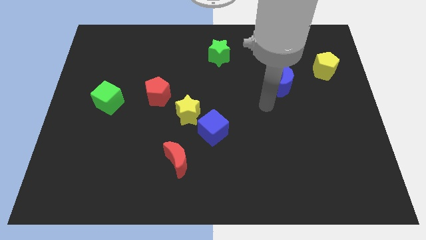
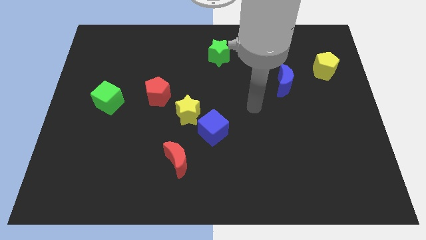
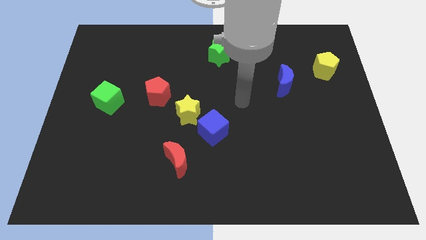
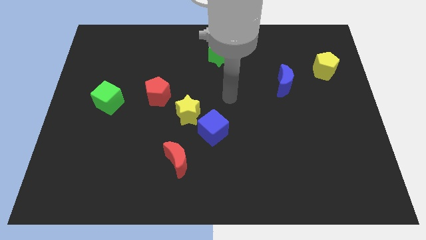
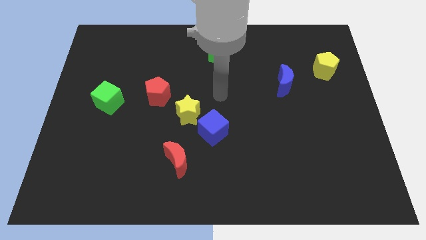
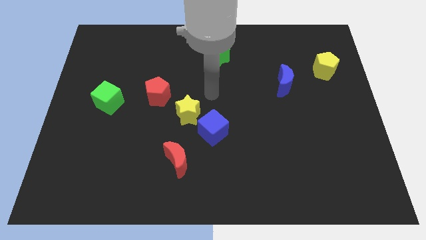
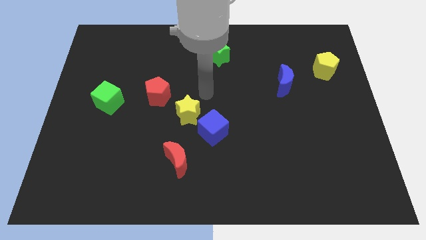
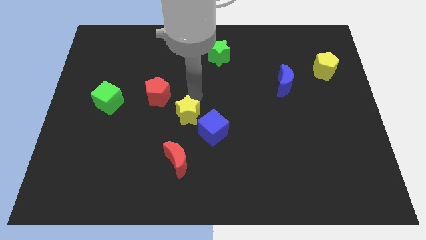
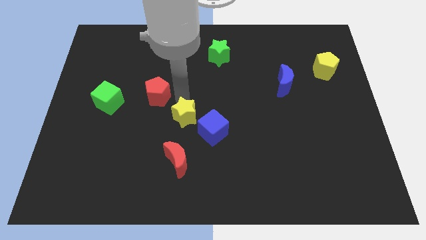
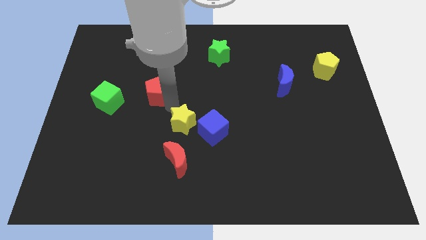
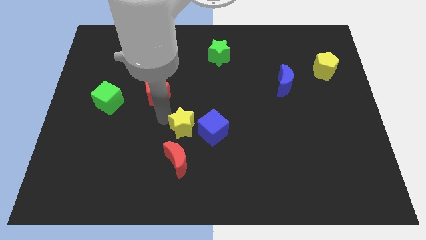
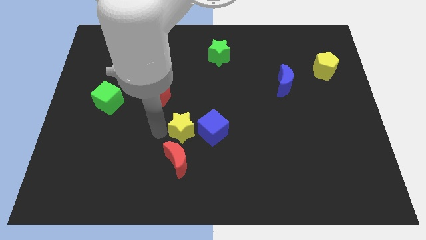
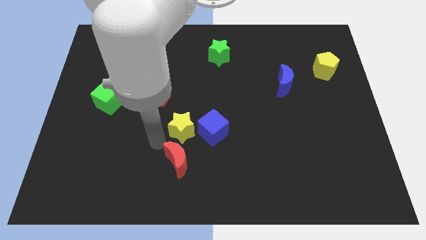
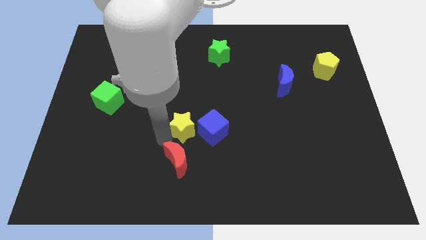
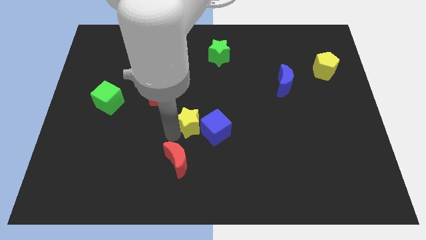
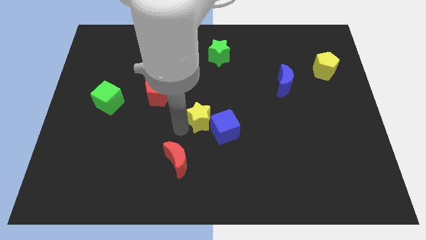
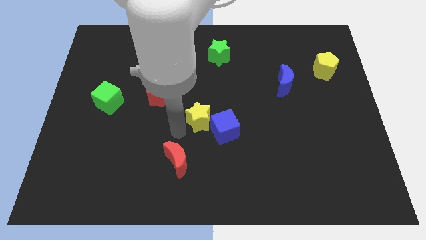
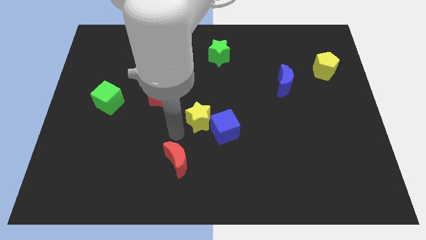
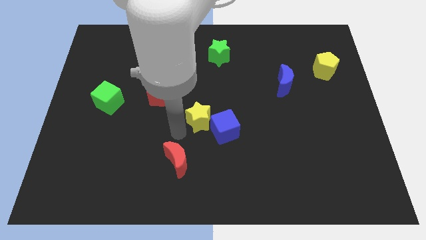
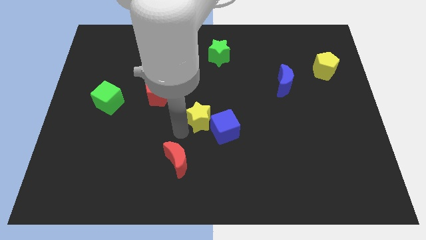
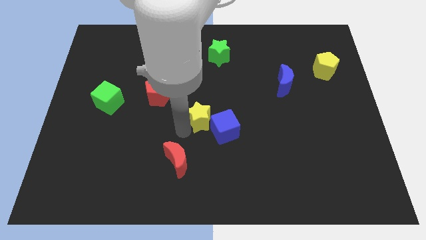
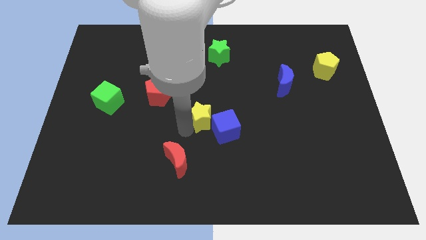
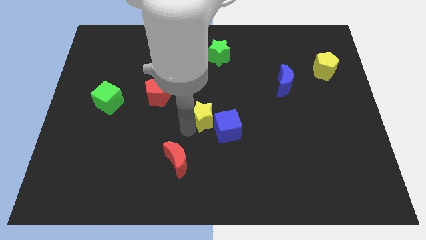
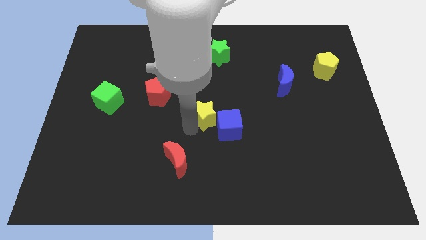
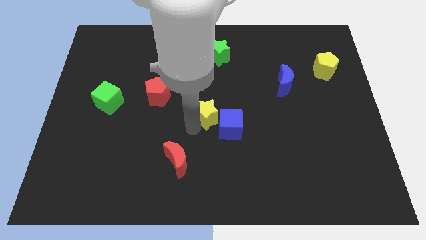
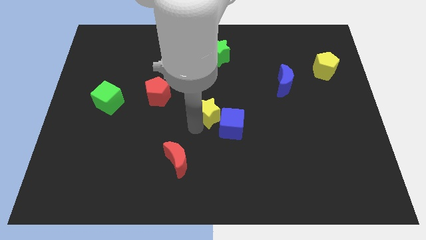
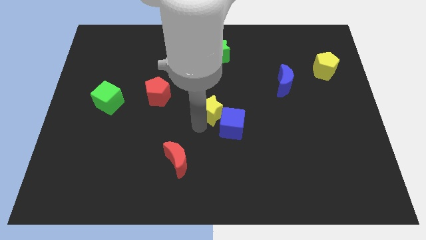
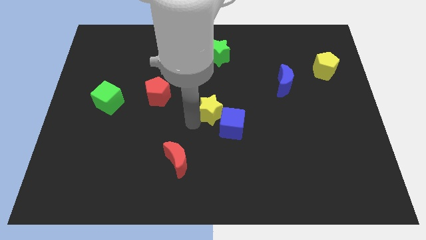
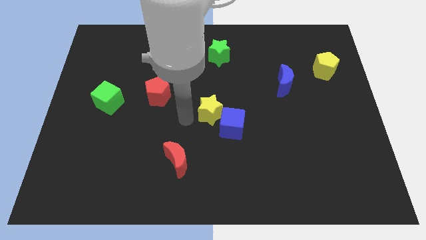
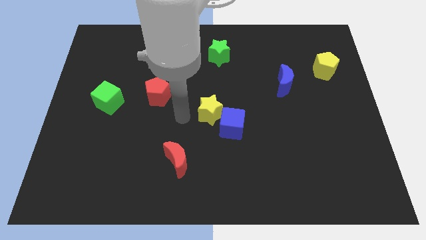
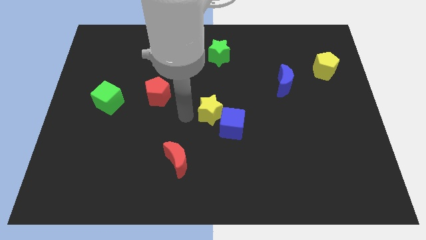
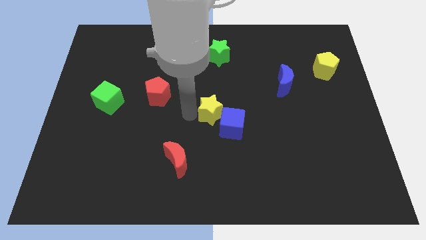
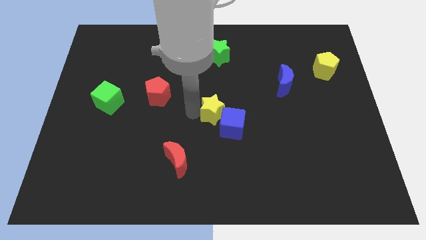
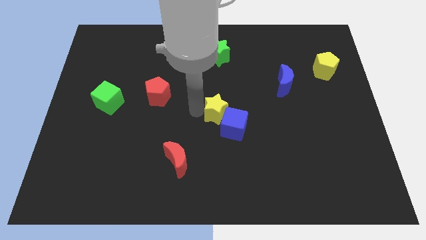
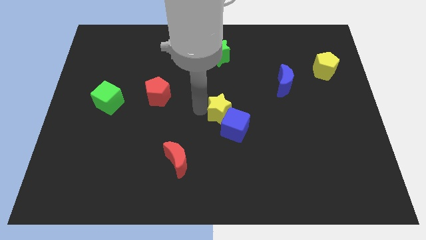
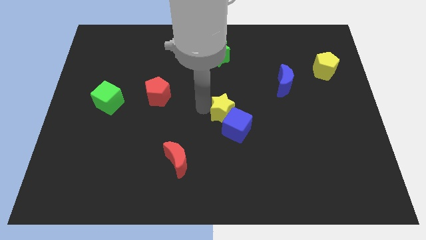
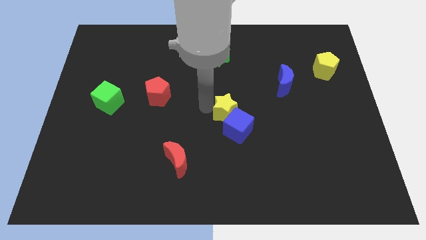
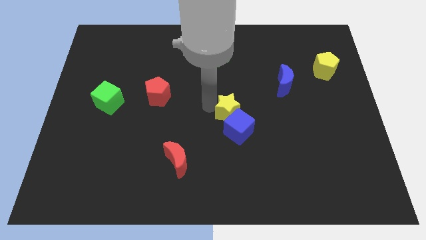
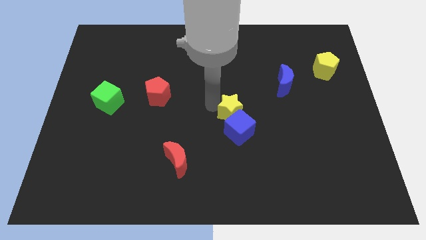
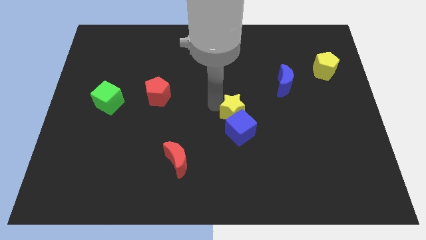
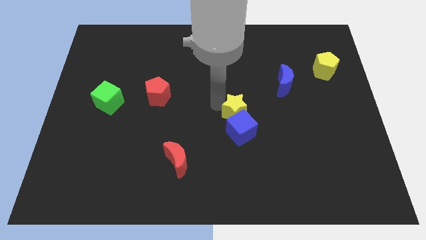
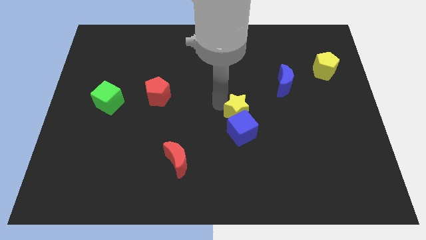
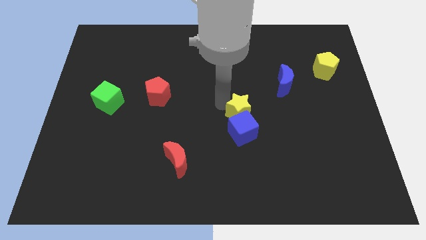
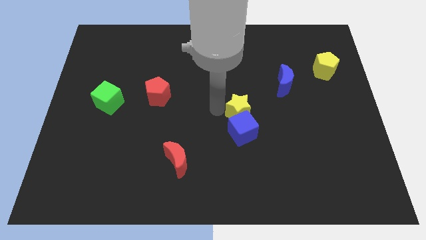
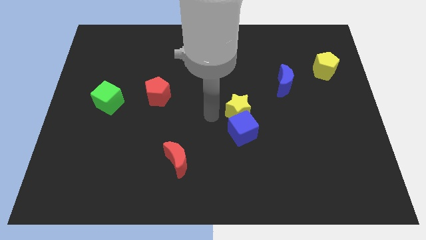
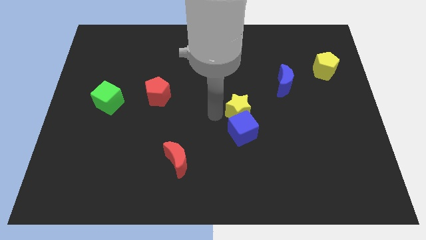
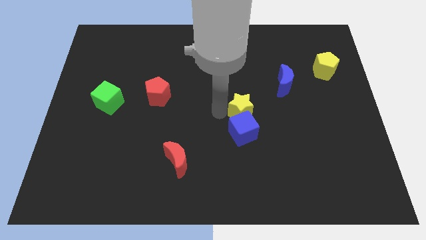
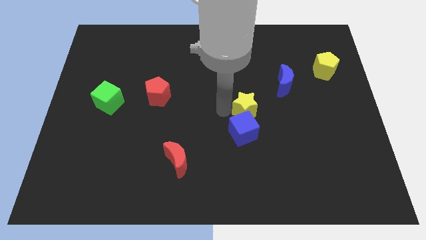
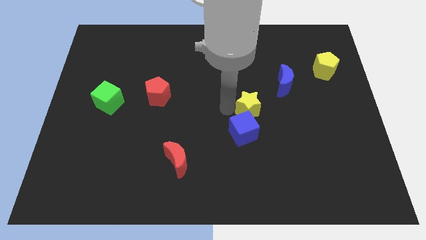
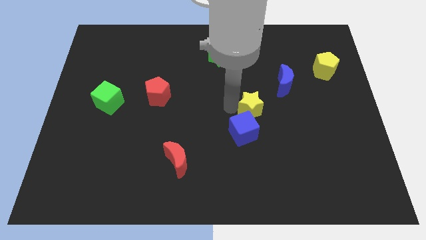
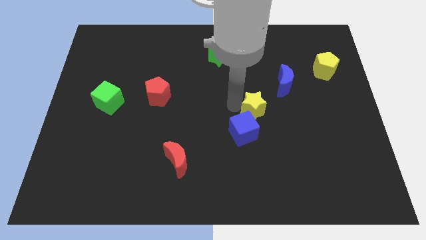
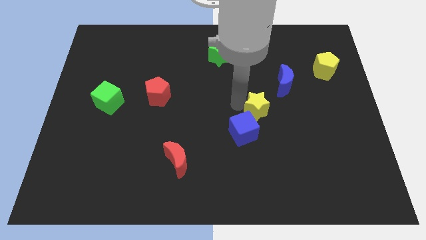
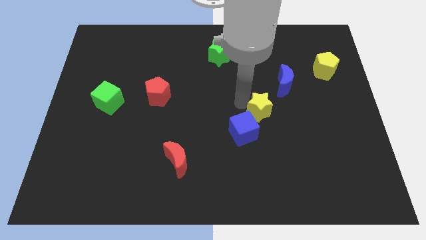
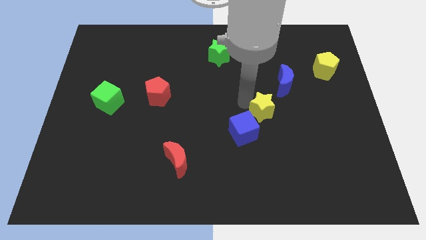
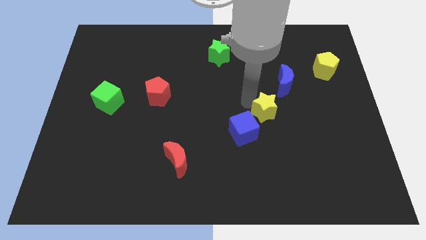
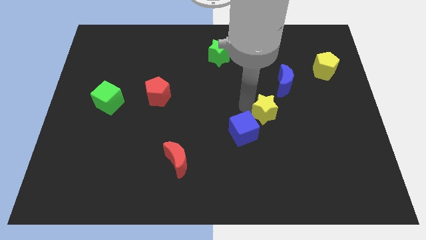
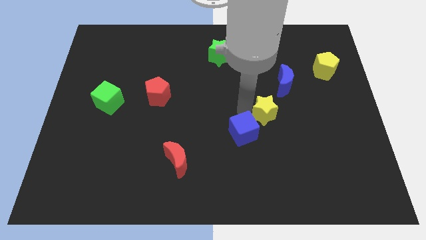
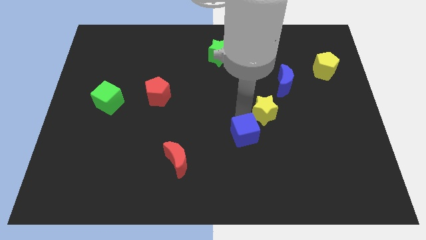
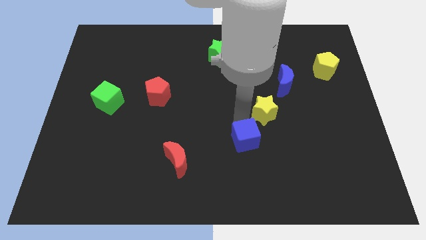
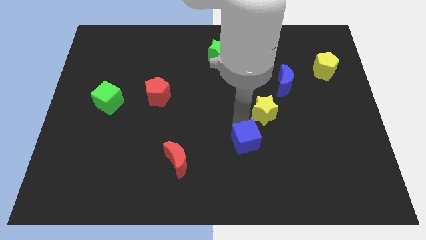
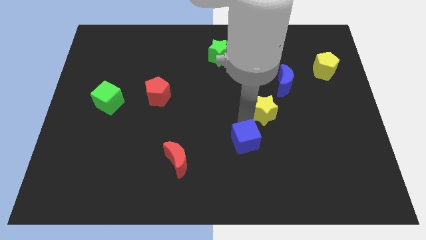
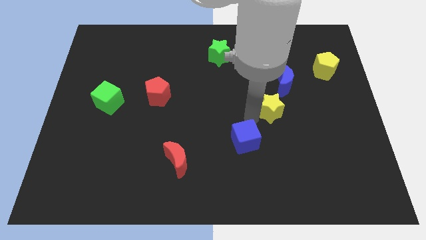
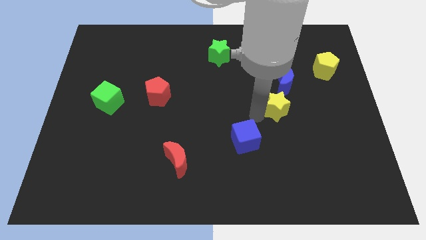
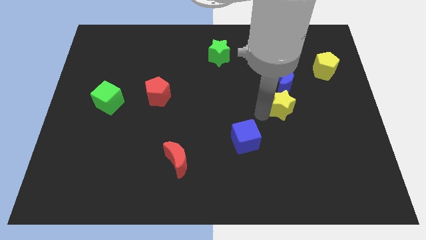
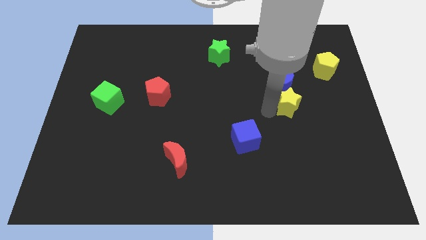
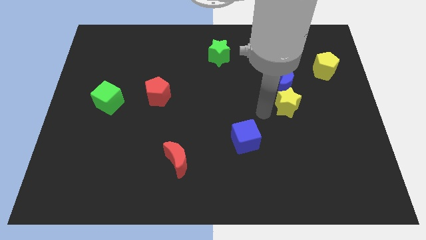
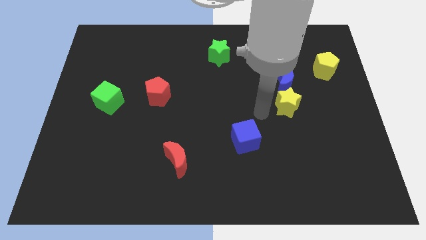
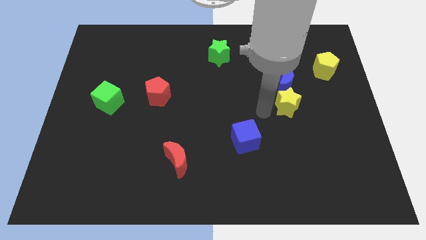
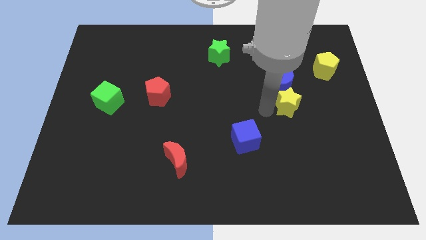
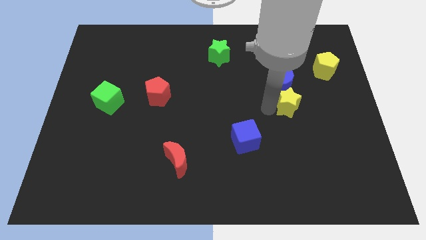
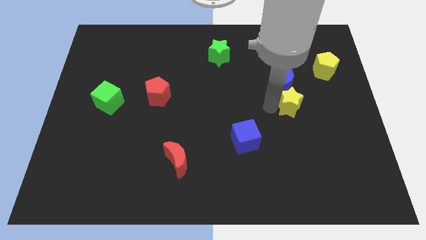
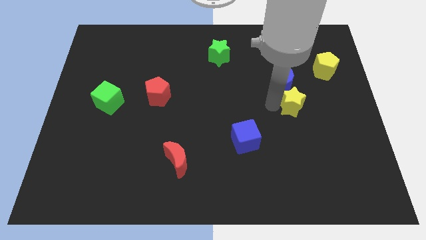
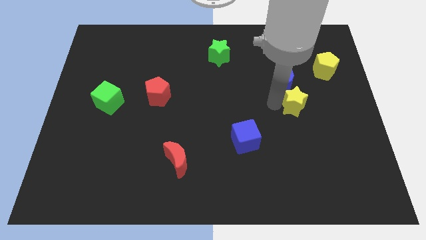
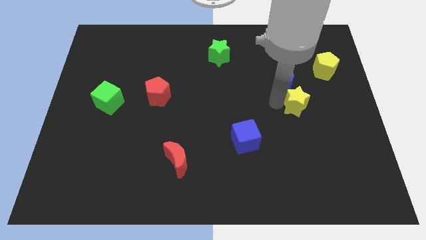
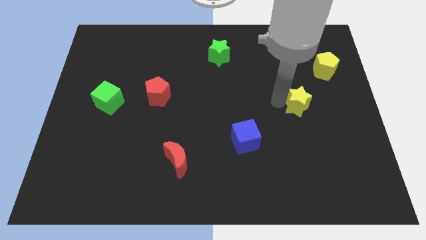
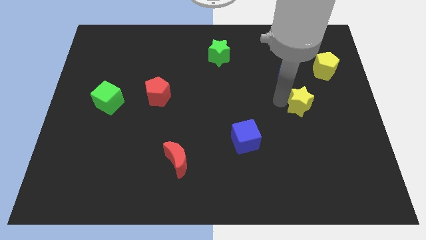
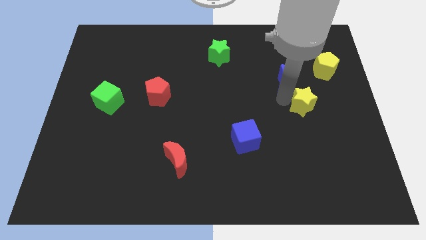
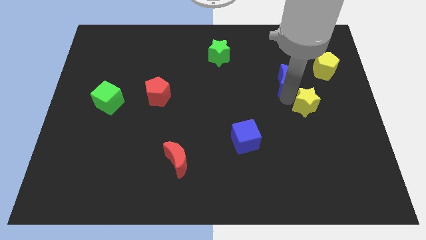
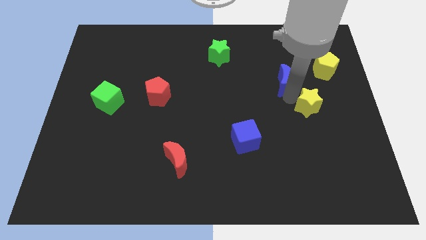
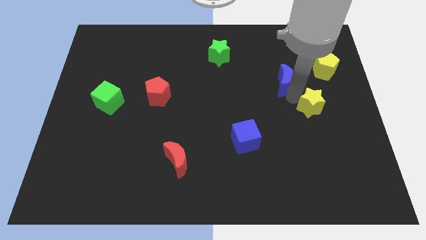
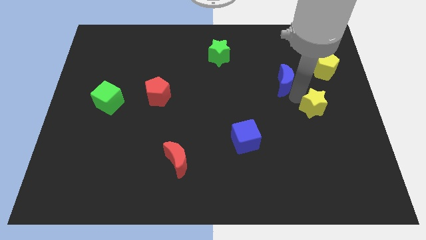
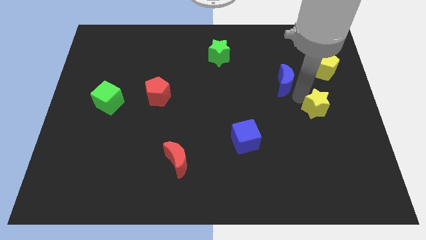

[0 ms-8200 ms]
move the yellow star below the yellow pentagon

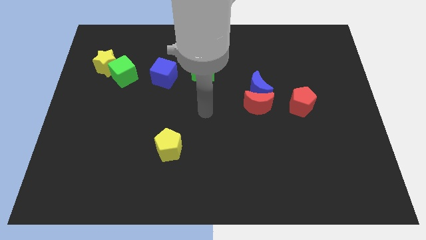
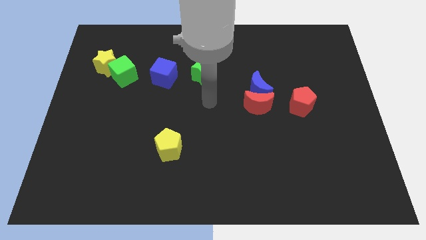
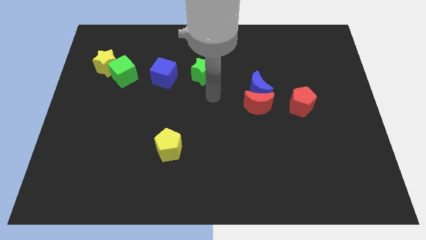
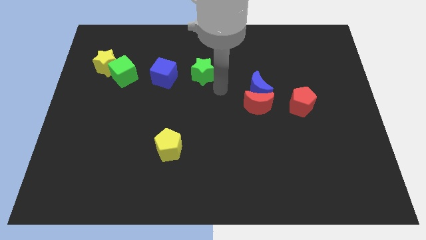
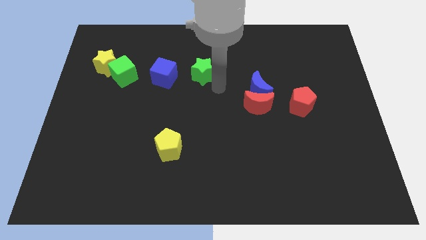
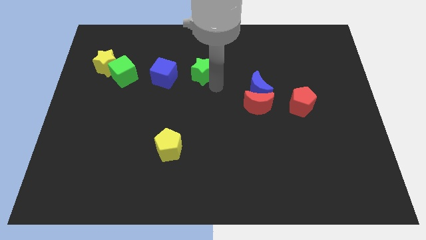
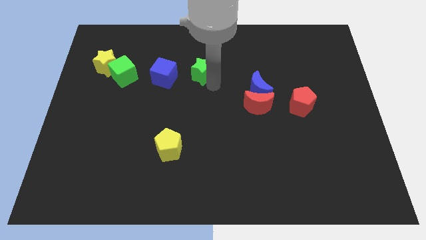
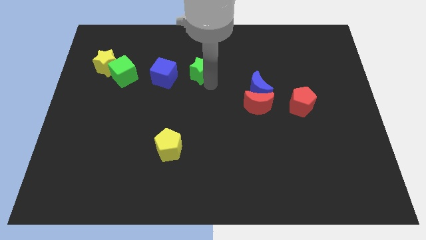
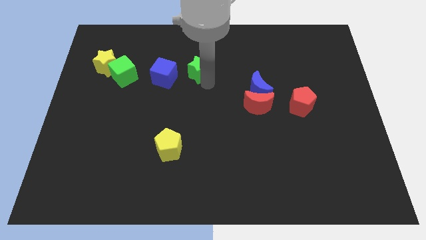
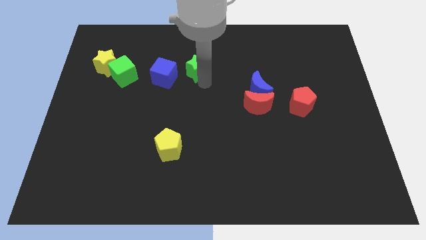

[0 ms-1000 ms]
move the green star to the top right of the blue cube
